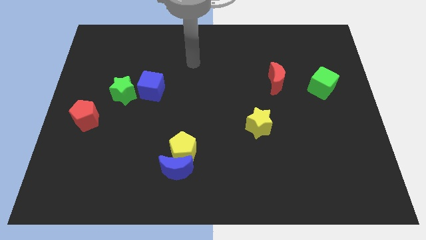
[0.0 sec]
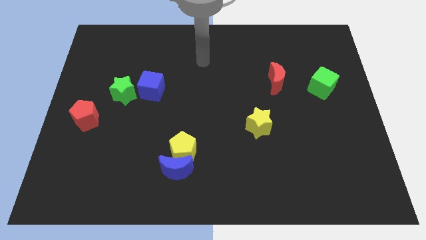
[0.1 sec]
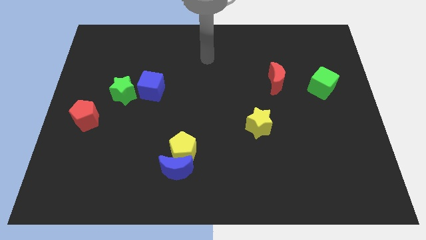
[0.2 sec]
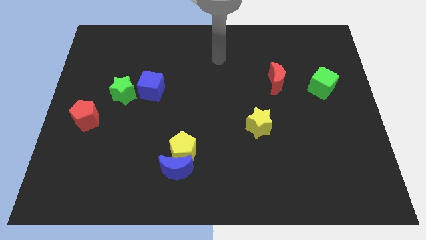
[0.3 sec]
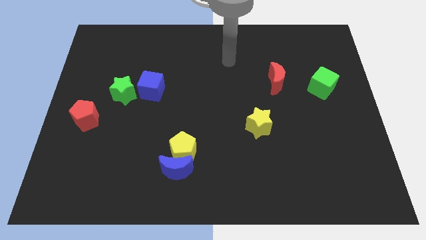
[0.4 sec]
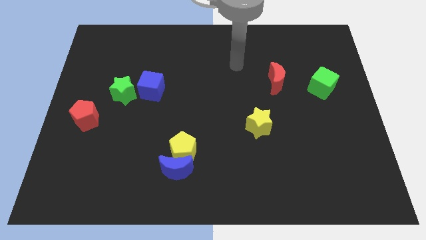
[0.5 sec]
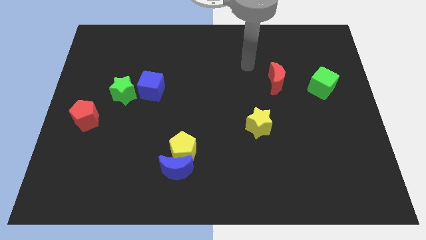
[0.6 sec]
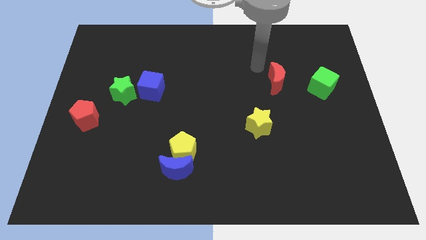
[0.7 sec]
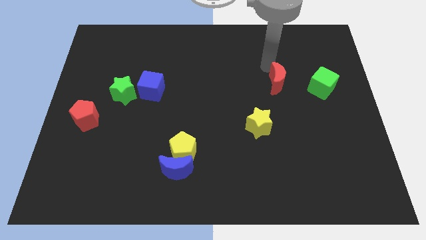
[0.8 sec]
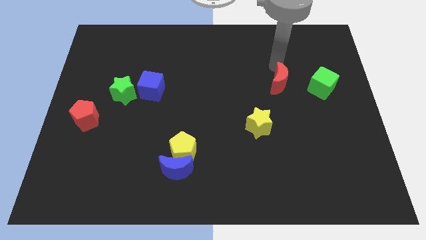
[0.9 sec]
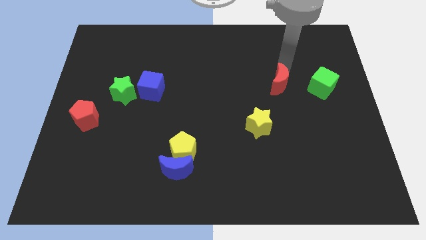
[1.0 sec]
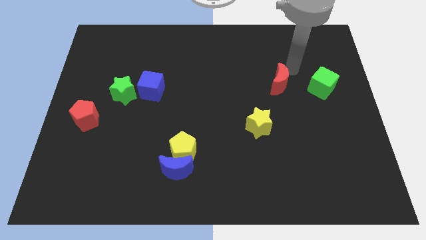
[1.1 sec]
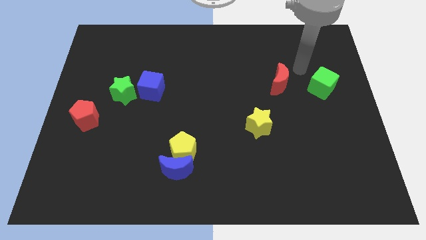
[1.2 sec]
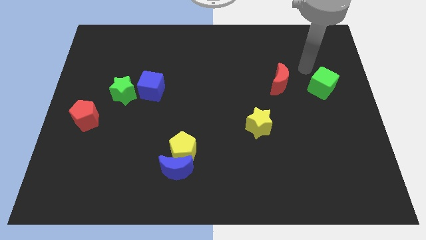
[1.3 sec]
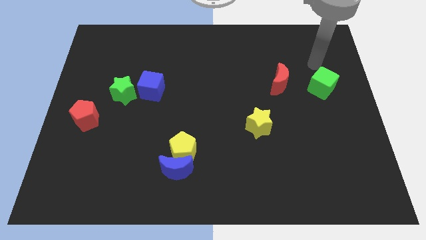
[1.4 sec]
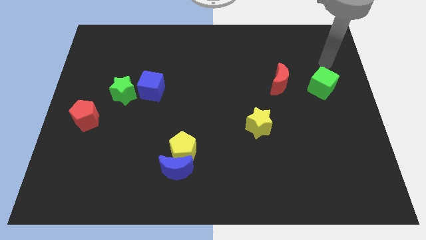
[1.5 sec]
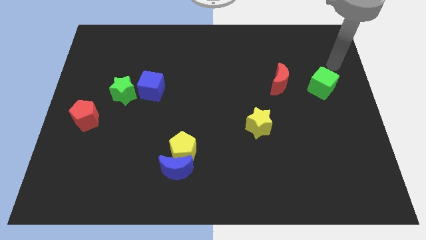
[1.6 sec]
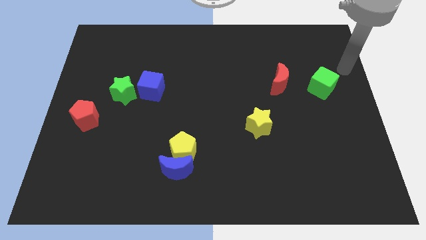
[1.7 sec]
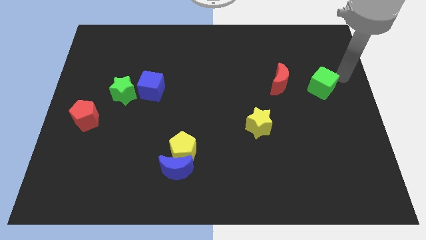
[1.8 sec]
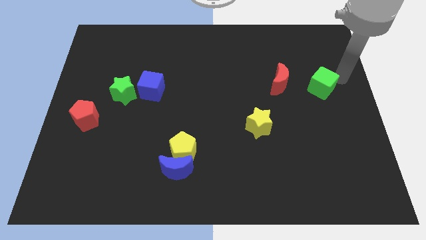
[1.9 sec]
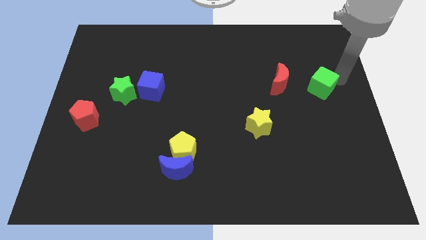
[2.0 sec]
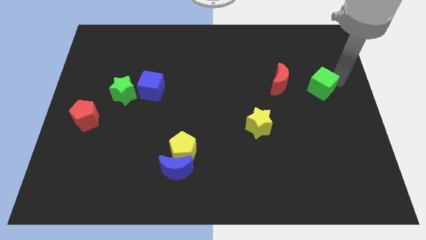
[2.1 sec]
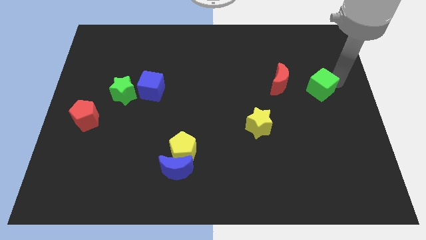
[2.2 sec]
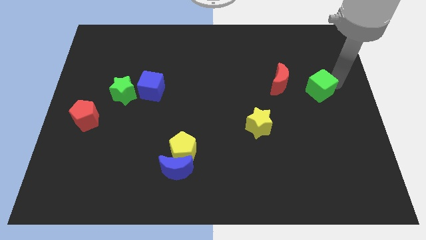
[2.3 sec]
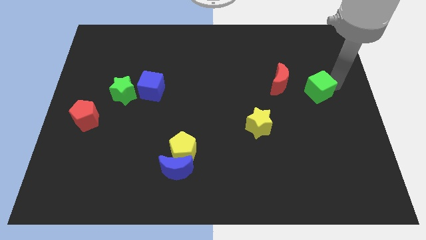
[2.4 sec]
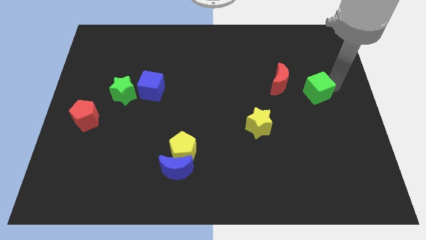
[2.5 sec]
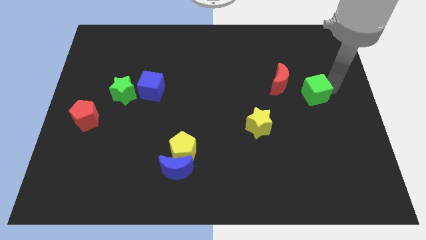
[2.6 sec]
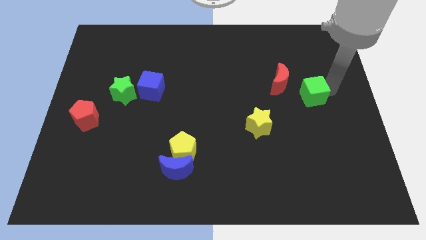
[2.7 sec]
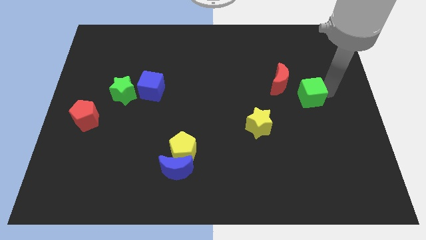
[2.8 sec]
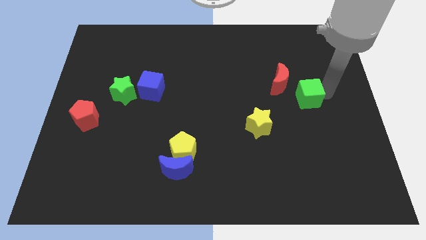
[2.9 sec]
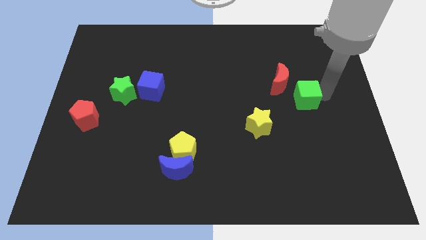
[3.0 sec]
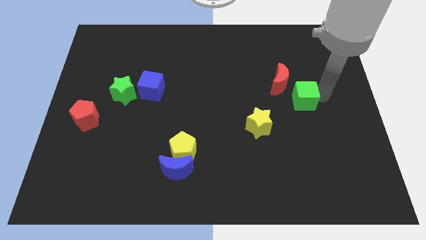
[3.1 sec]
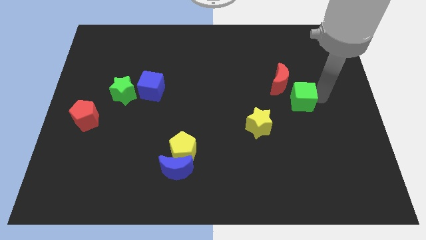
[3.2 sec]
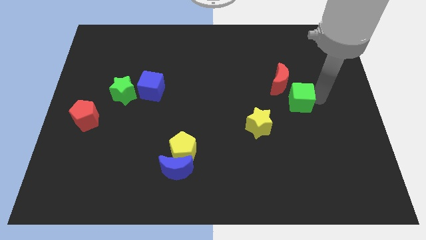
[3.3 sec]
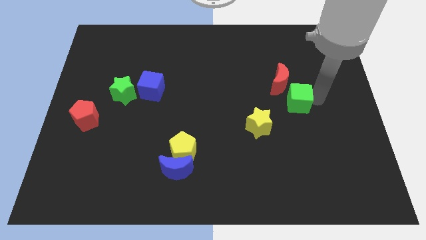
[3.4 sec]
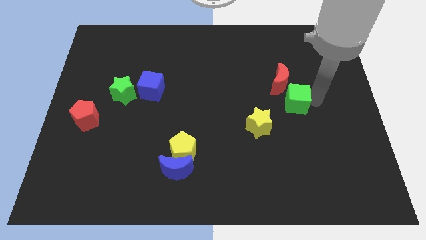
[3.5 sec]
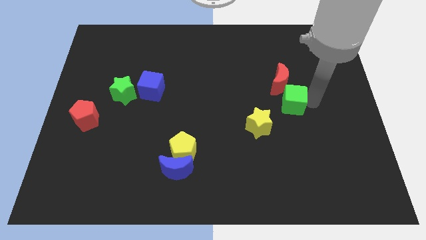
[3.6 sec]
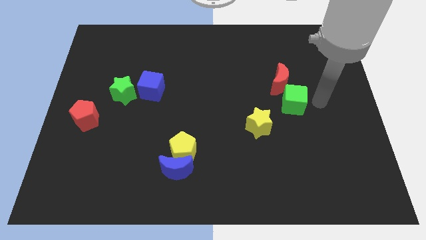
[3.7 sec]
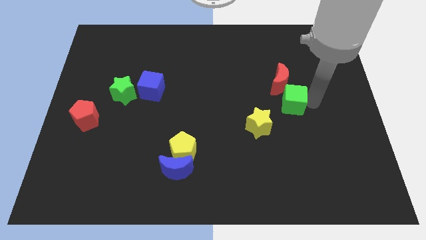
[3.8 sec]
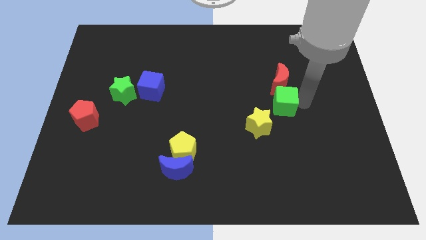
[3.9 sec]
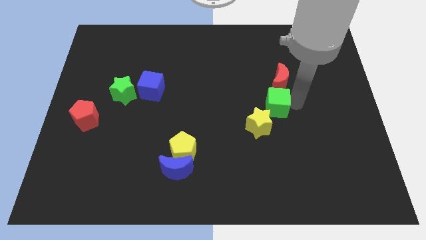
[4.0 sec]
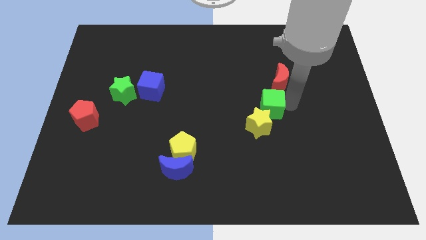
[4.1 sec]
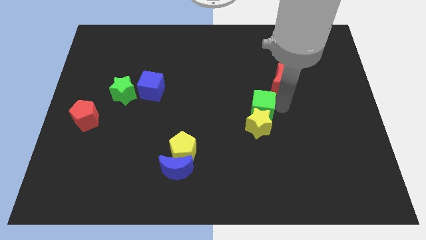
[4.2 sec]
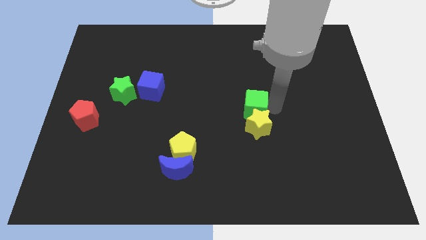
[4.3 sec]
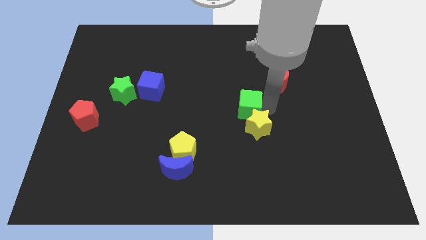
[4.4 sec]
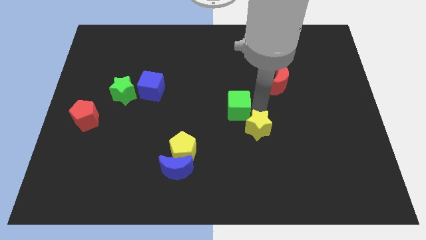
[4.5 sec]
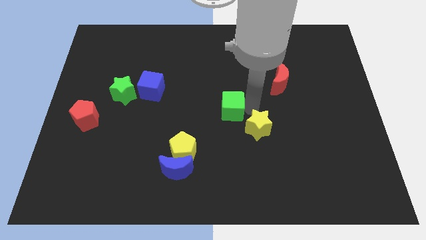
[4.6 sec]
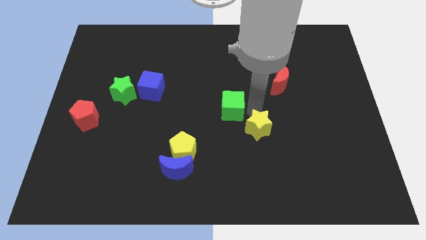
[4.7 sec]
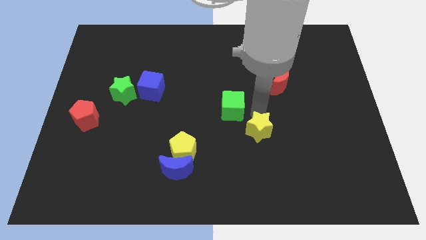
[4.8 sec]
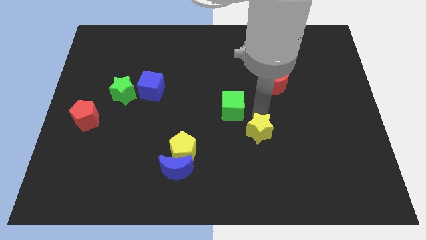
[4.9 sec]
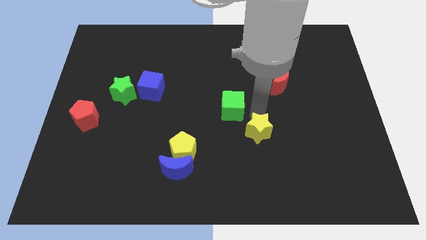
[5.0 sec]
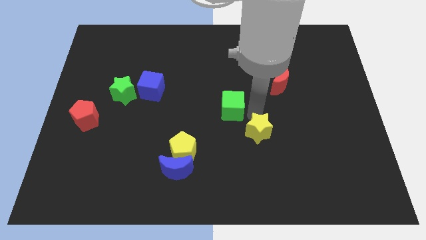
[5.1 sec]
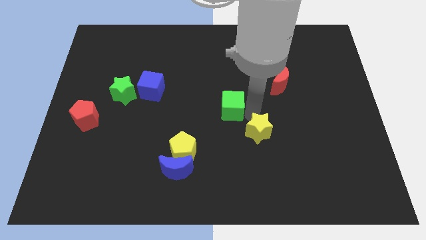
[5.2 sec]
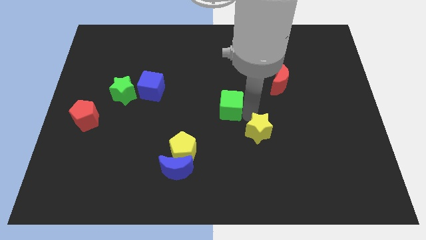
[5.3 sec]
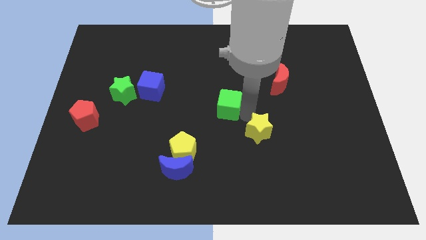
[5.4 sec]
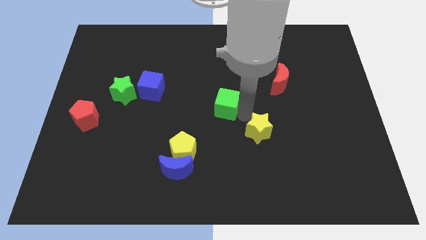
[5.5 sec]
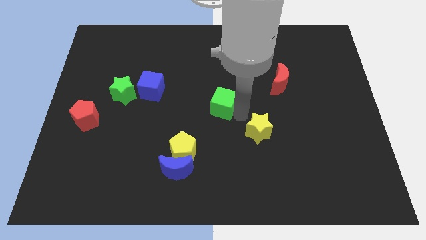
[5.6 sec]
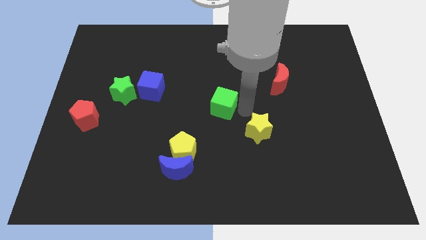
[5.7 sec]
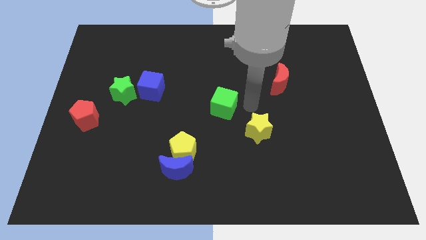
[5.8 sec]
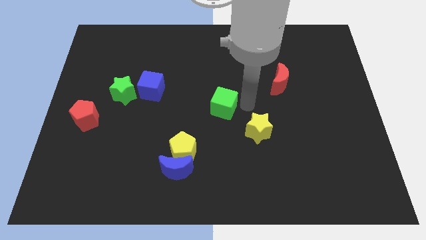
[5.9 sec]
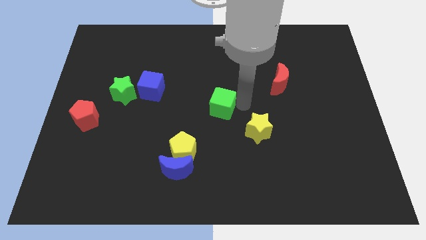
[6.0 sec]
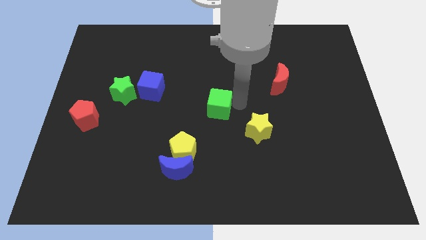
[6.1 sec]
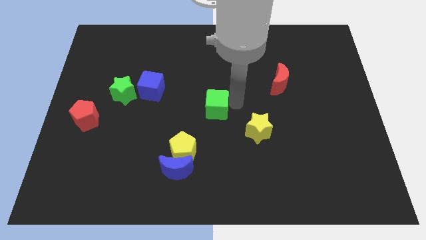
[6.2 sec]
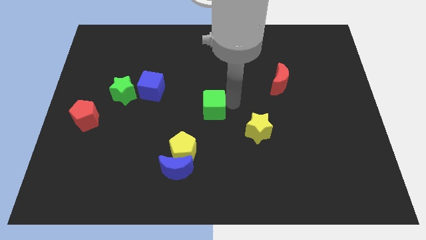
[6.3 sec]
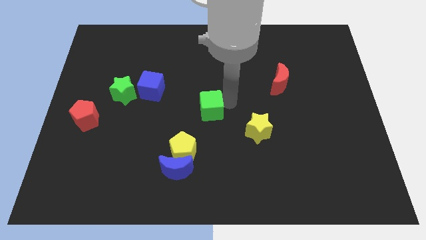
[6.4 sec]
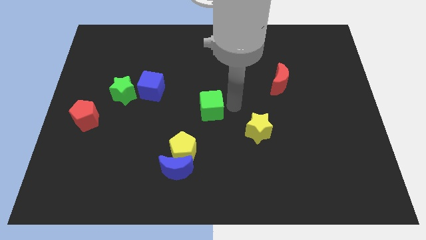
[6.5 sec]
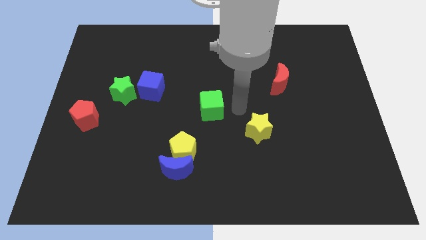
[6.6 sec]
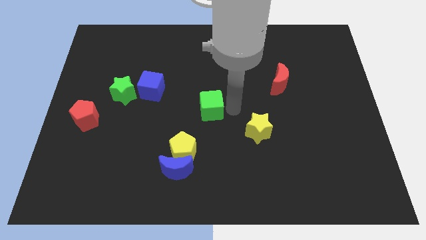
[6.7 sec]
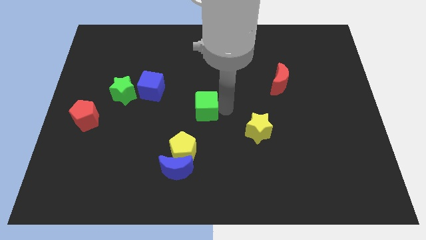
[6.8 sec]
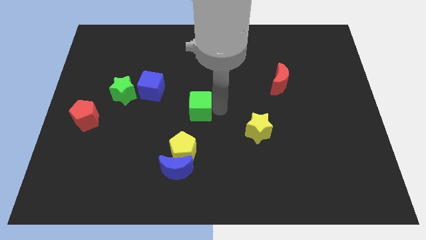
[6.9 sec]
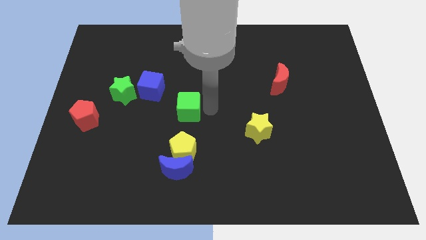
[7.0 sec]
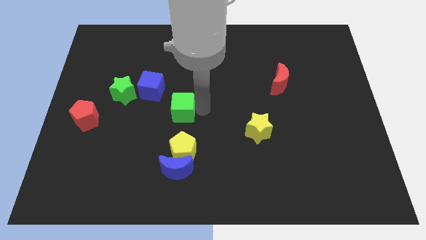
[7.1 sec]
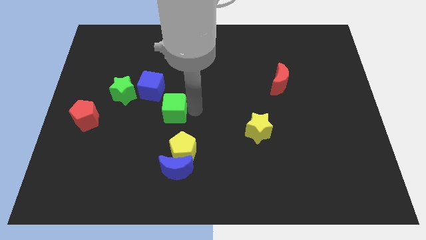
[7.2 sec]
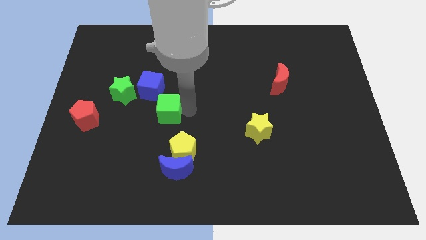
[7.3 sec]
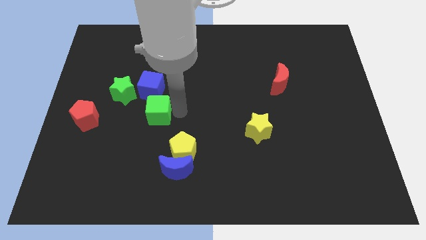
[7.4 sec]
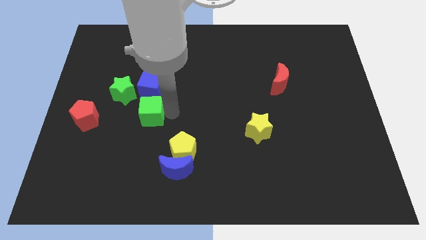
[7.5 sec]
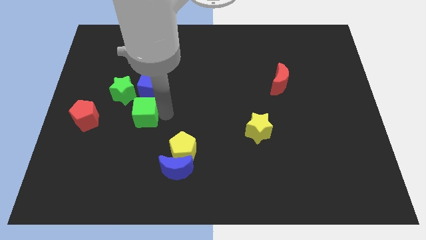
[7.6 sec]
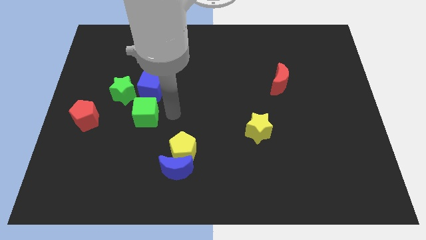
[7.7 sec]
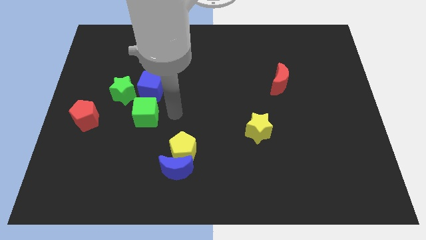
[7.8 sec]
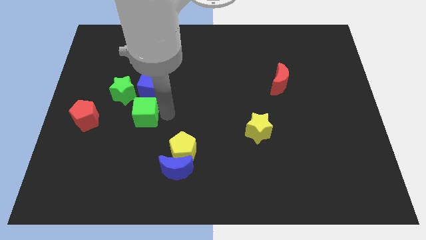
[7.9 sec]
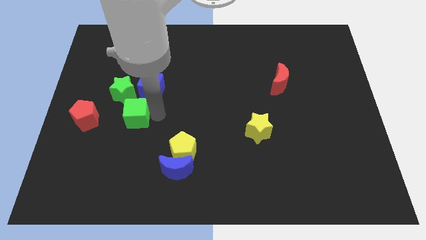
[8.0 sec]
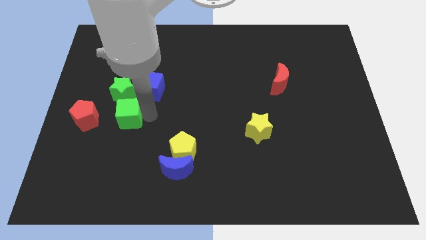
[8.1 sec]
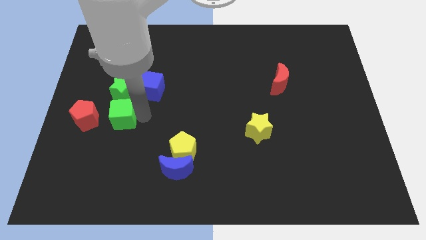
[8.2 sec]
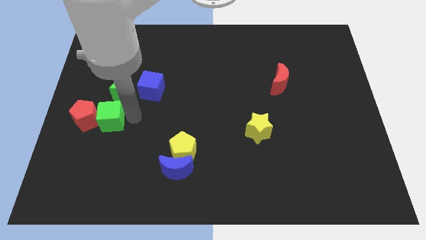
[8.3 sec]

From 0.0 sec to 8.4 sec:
move the green cube to the red pentagon
